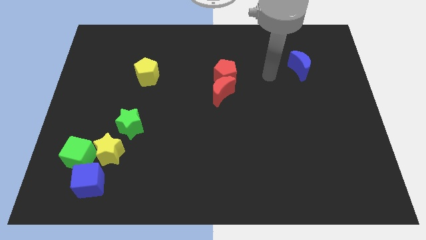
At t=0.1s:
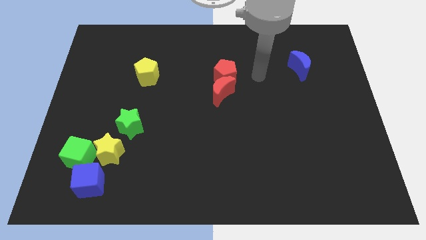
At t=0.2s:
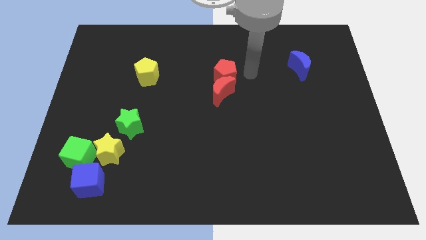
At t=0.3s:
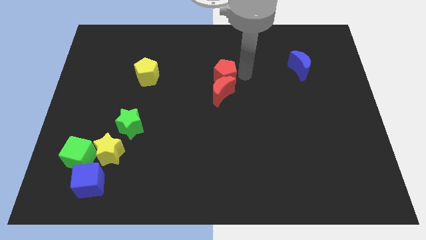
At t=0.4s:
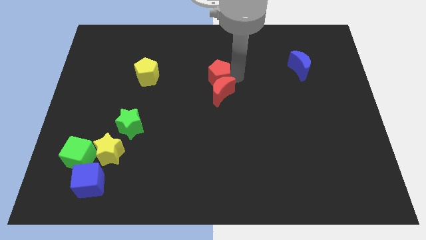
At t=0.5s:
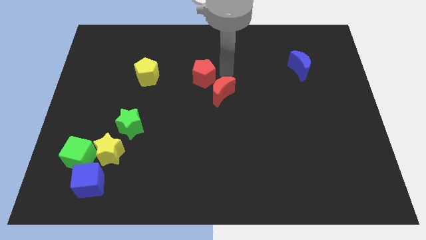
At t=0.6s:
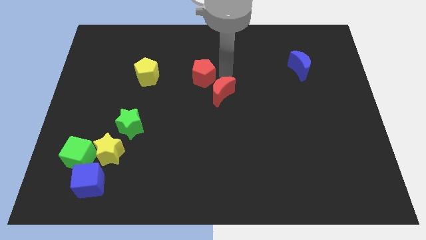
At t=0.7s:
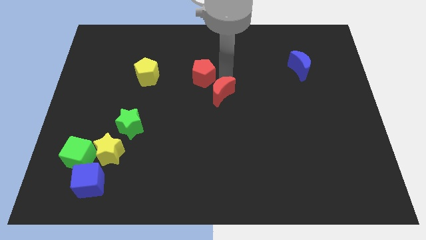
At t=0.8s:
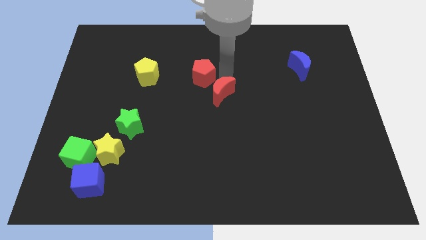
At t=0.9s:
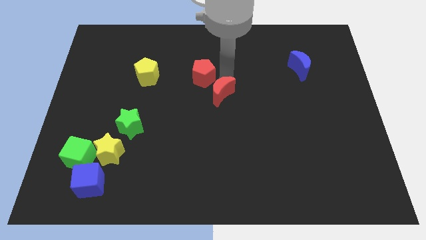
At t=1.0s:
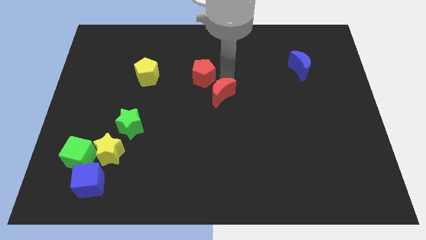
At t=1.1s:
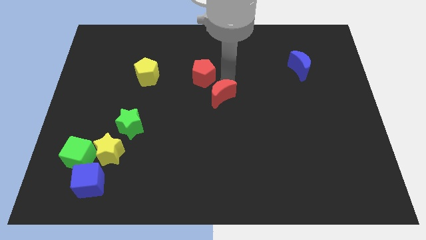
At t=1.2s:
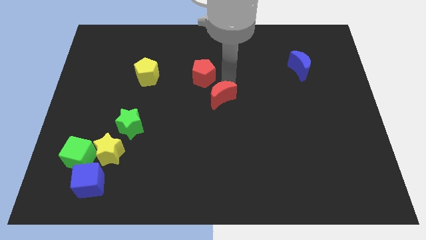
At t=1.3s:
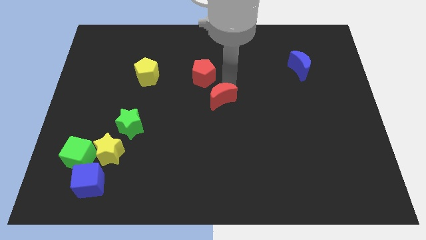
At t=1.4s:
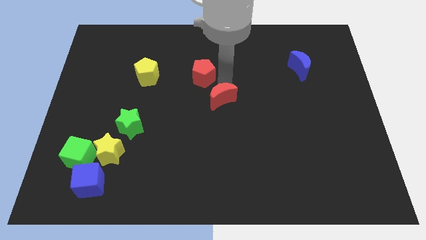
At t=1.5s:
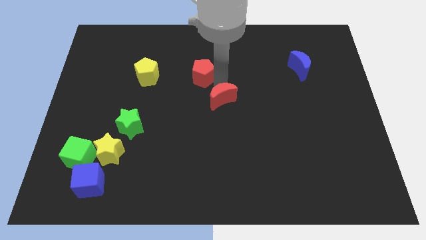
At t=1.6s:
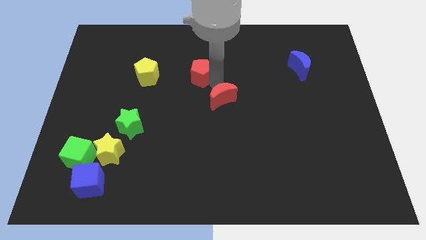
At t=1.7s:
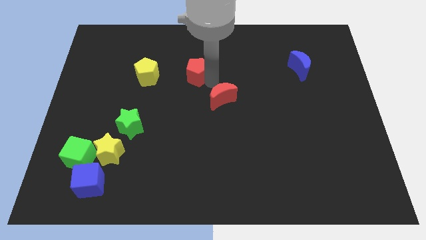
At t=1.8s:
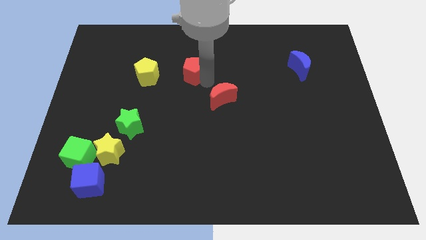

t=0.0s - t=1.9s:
separate the red moon from the red pentagon

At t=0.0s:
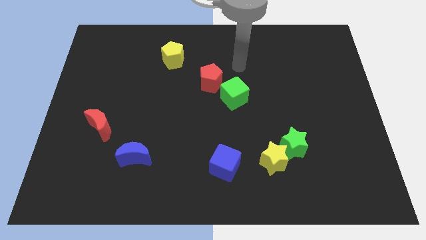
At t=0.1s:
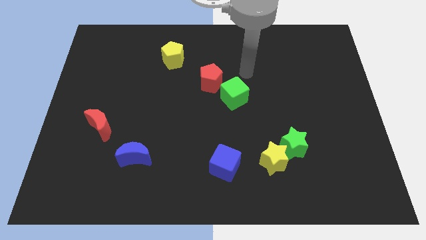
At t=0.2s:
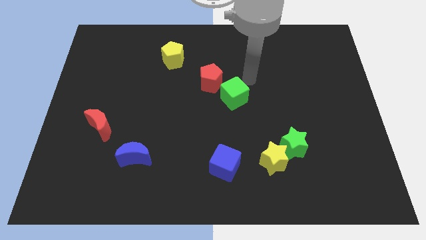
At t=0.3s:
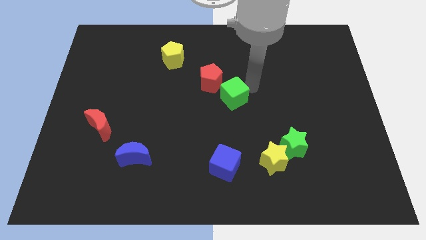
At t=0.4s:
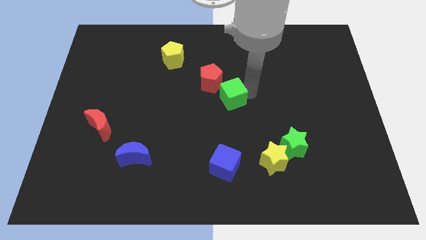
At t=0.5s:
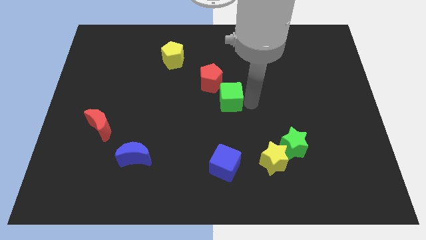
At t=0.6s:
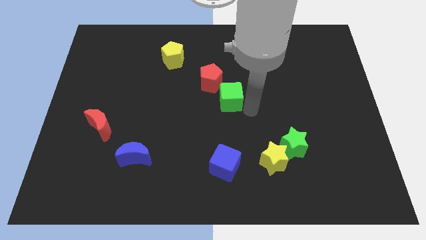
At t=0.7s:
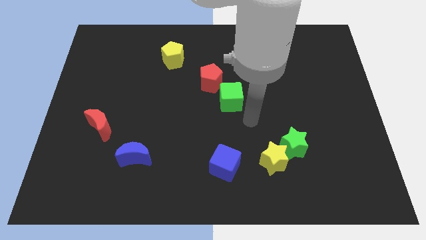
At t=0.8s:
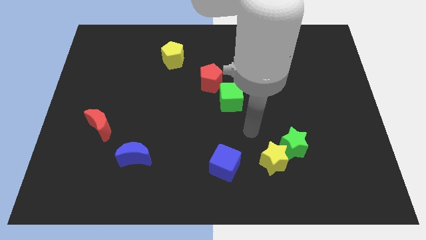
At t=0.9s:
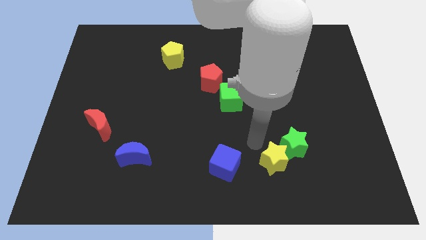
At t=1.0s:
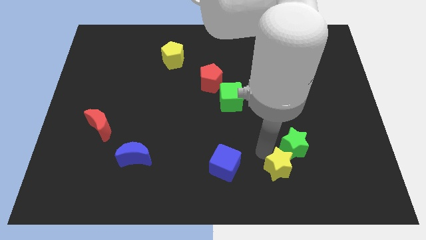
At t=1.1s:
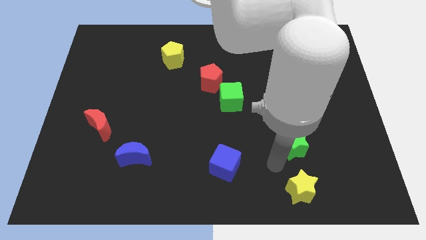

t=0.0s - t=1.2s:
separate the green star from the yellow star

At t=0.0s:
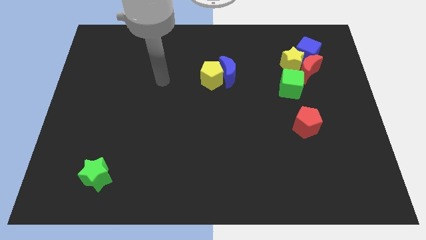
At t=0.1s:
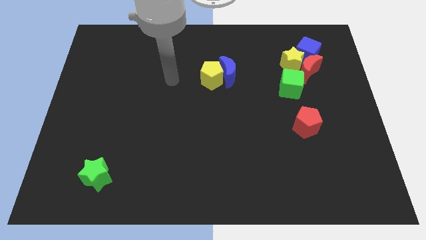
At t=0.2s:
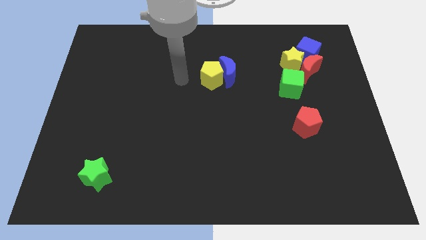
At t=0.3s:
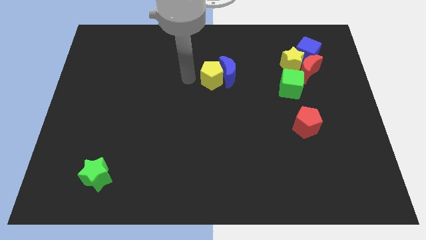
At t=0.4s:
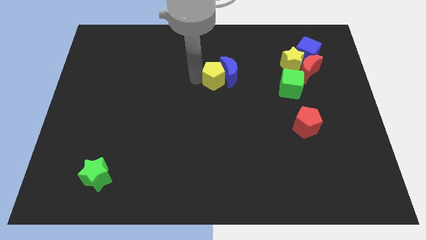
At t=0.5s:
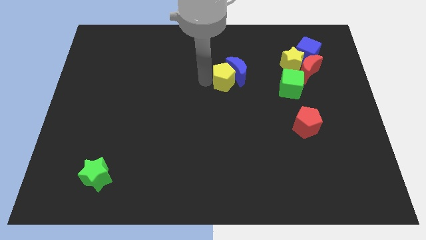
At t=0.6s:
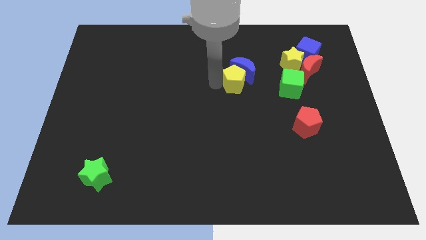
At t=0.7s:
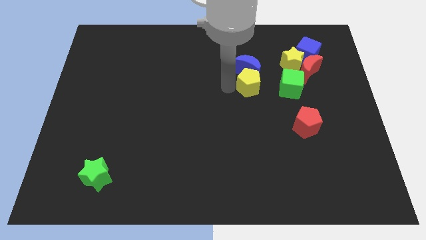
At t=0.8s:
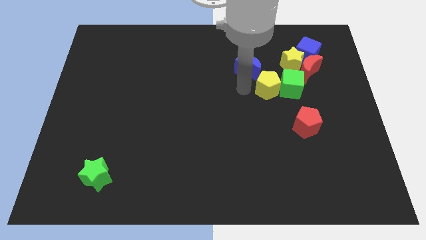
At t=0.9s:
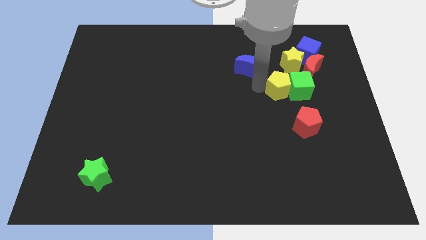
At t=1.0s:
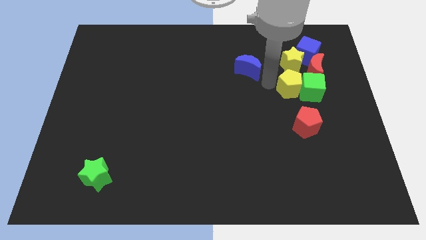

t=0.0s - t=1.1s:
move the blue moon away from the yellow pentagon

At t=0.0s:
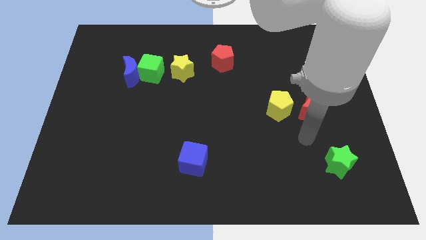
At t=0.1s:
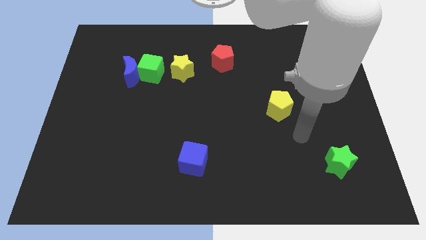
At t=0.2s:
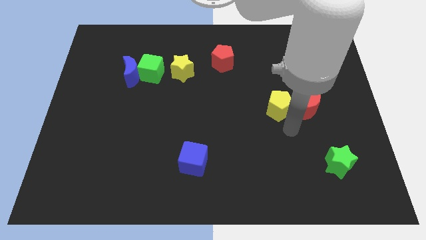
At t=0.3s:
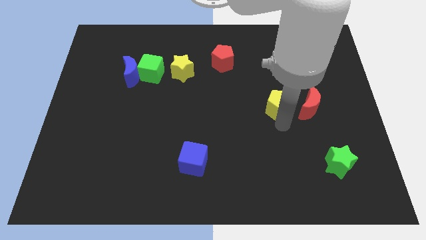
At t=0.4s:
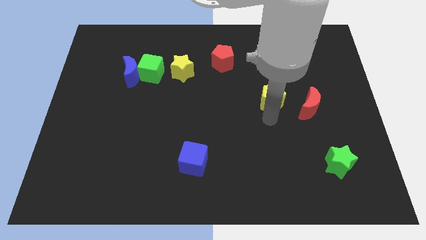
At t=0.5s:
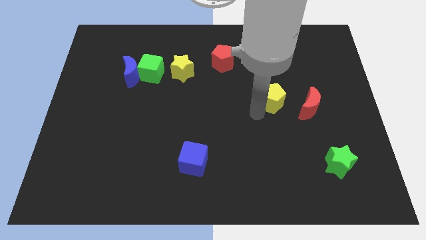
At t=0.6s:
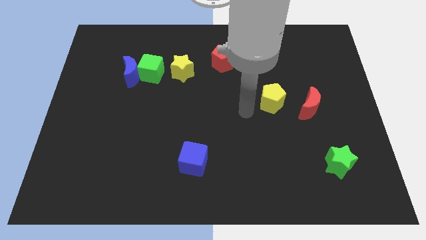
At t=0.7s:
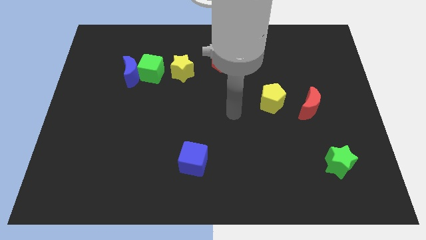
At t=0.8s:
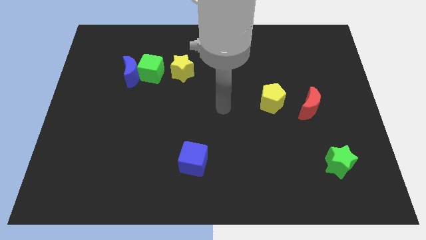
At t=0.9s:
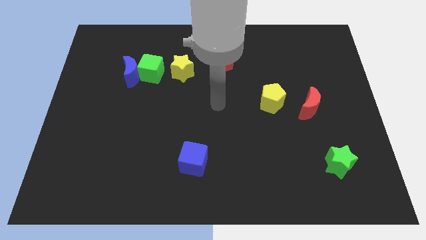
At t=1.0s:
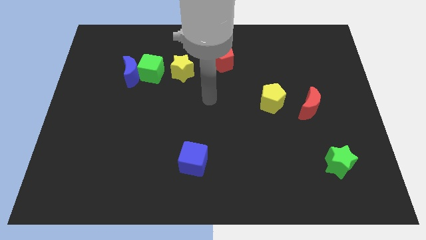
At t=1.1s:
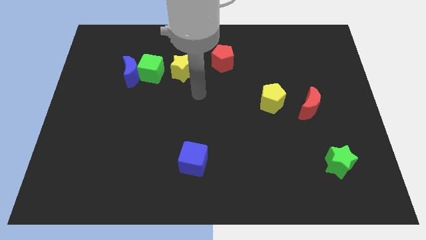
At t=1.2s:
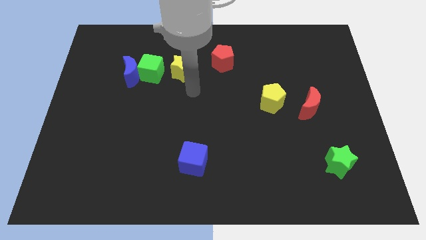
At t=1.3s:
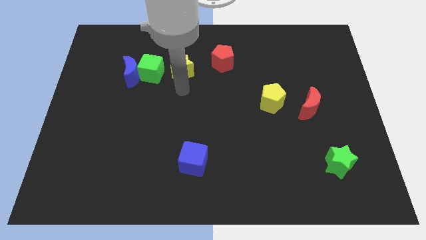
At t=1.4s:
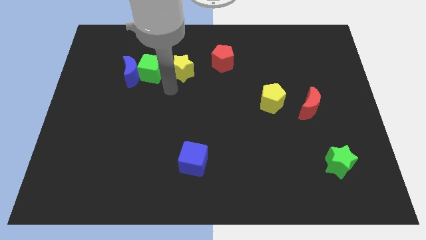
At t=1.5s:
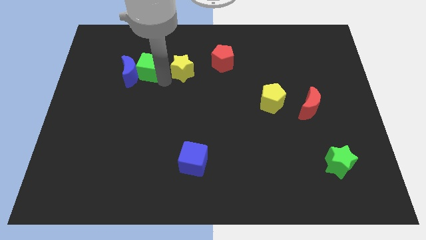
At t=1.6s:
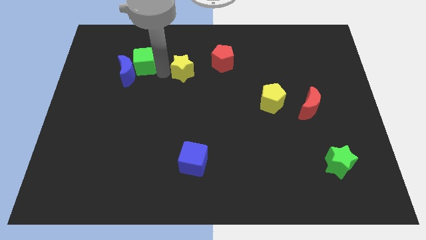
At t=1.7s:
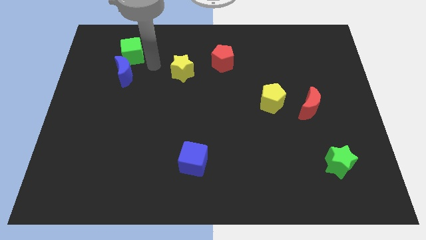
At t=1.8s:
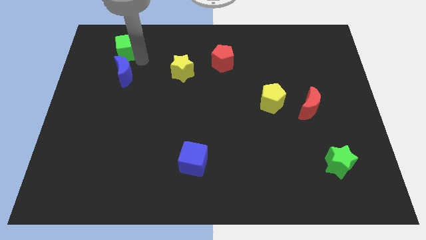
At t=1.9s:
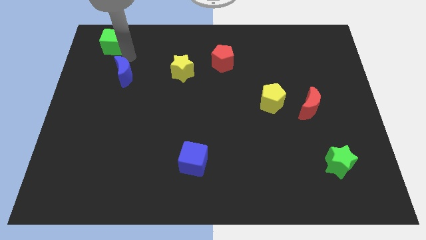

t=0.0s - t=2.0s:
pull the blue moon apart from the green cube

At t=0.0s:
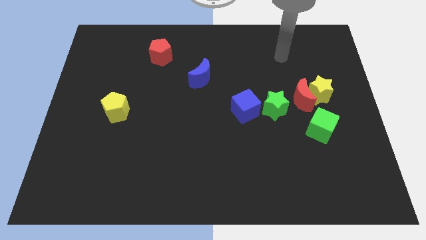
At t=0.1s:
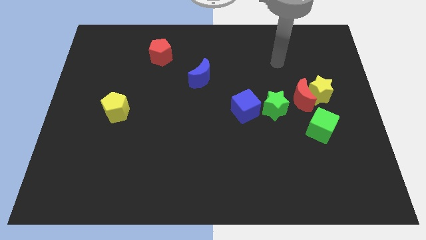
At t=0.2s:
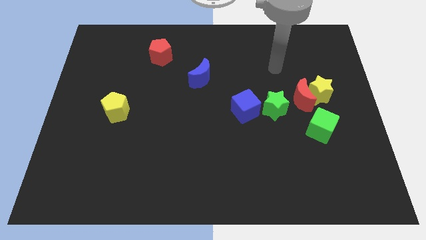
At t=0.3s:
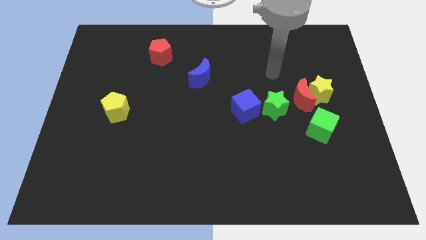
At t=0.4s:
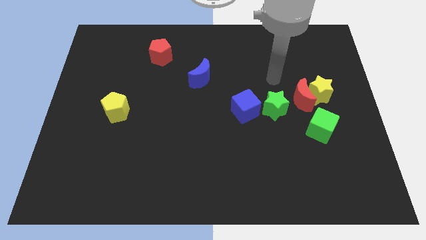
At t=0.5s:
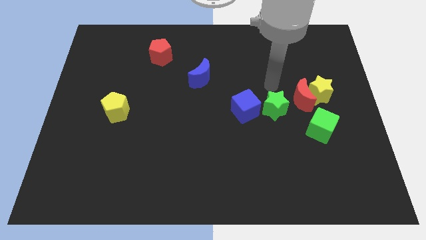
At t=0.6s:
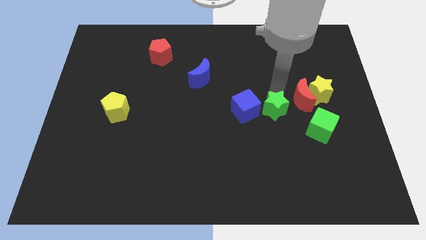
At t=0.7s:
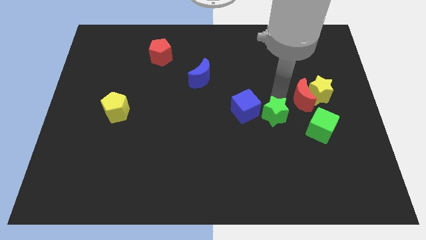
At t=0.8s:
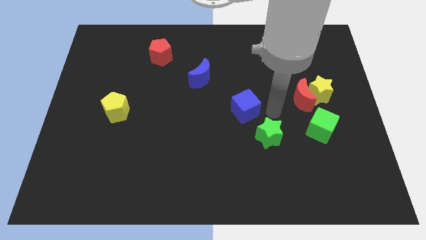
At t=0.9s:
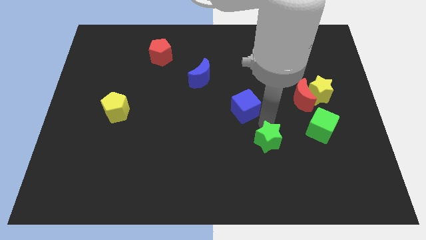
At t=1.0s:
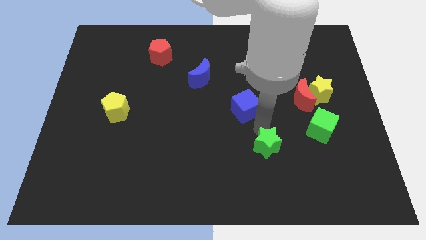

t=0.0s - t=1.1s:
separate the blue cube from the green star

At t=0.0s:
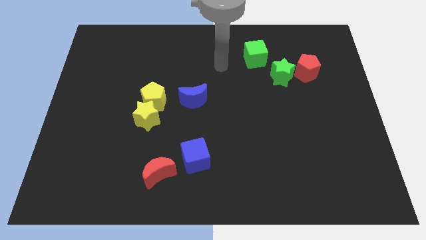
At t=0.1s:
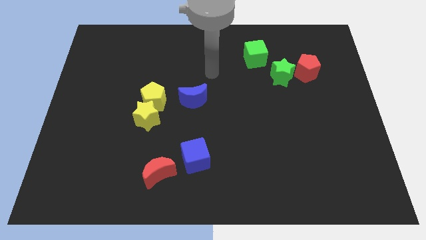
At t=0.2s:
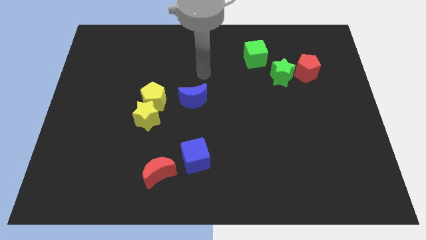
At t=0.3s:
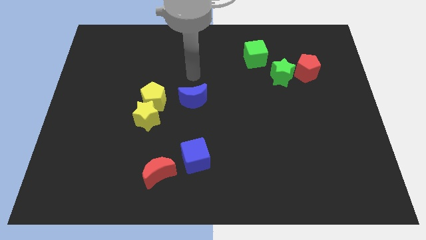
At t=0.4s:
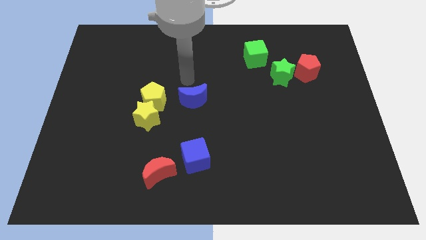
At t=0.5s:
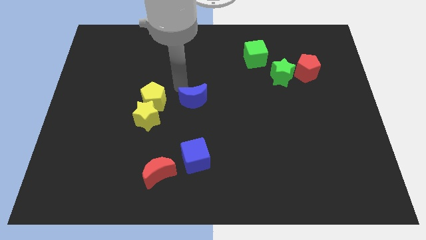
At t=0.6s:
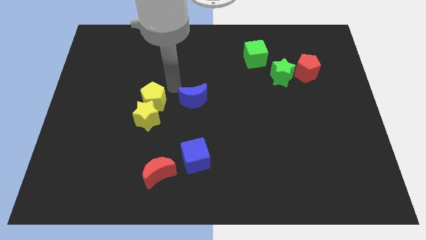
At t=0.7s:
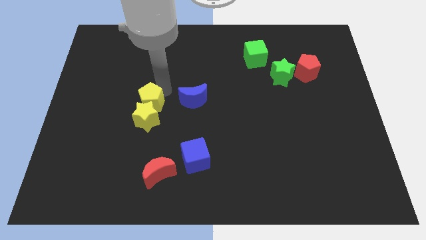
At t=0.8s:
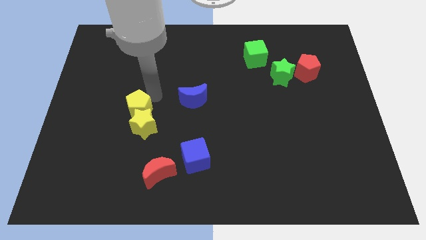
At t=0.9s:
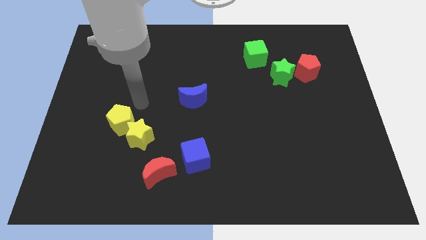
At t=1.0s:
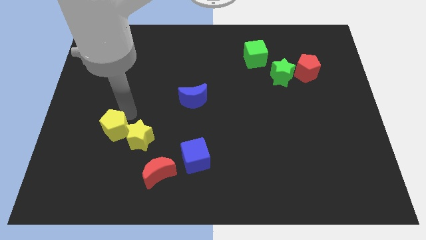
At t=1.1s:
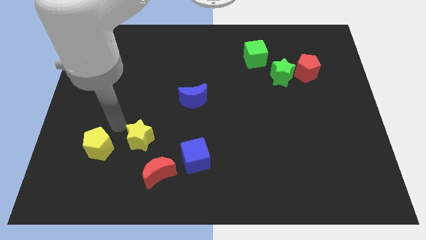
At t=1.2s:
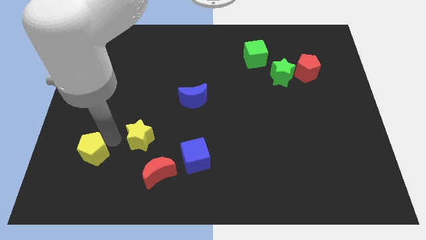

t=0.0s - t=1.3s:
pull the yellow star apart from the yellow pentagon

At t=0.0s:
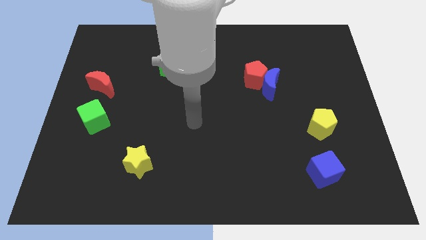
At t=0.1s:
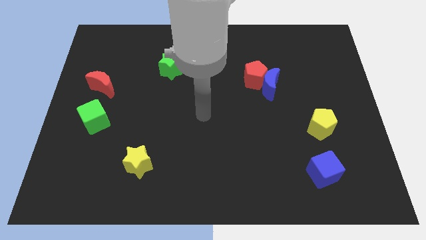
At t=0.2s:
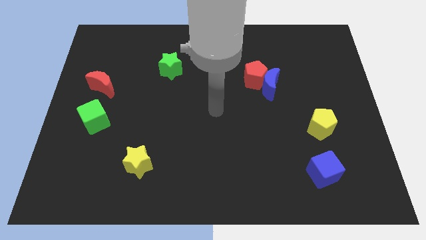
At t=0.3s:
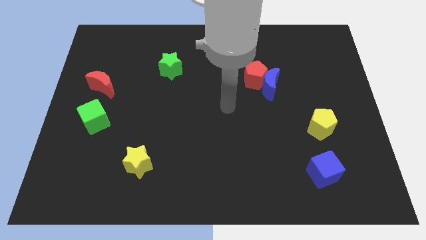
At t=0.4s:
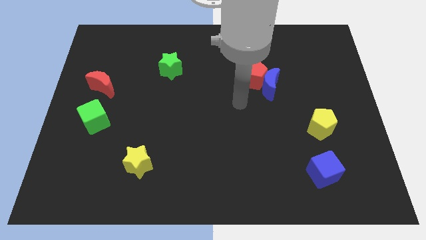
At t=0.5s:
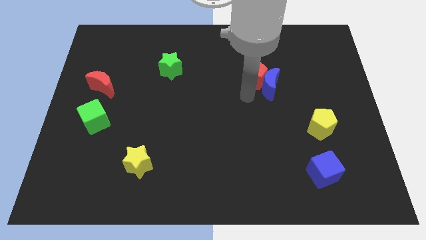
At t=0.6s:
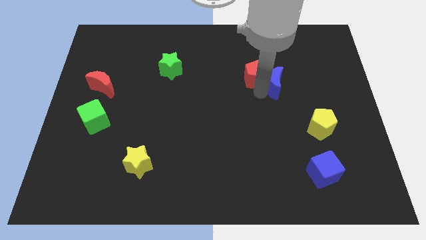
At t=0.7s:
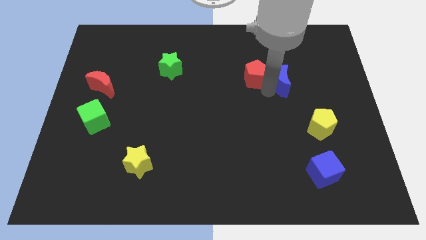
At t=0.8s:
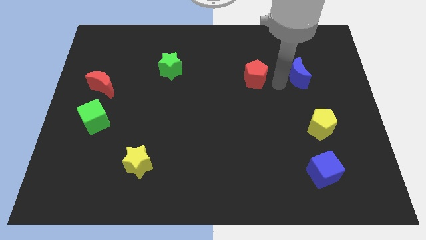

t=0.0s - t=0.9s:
move the red pentagon away from the blue moon
